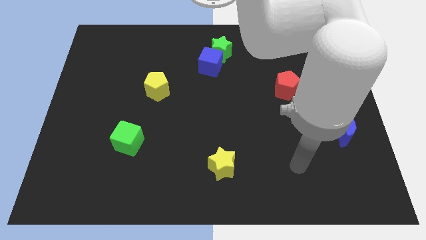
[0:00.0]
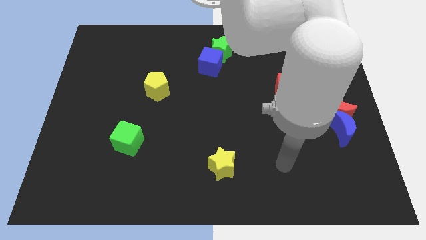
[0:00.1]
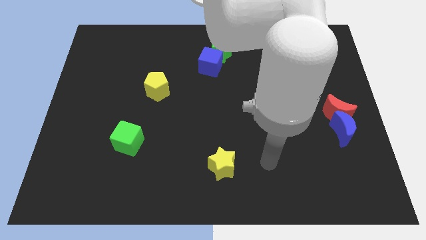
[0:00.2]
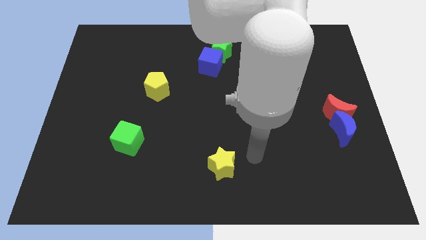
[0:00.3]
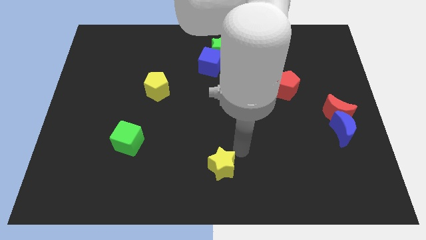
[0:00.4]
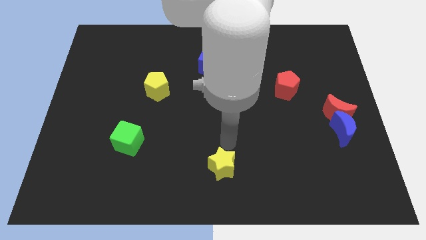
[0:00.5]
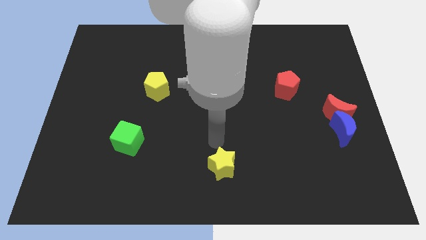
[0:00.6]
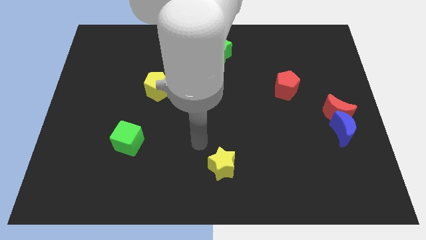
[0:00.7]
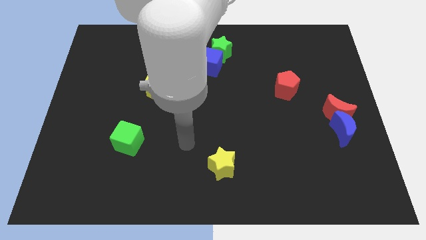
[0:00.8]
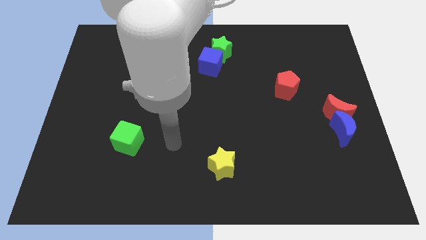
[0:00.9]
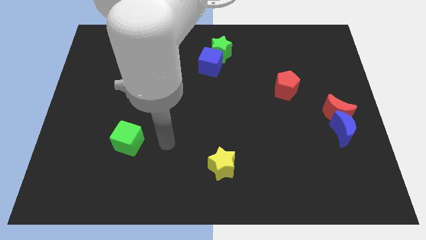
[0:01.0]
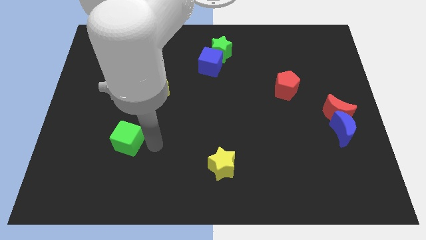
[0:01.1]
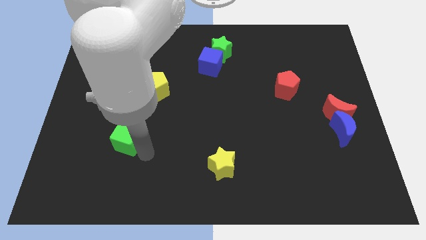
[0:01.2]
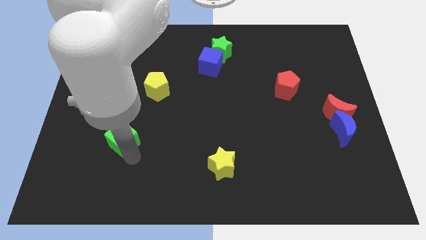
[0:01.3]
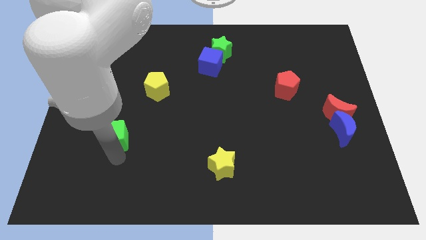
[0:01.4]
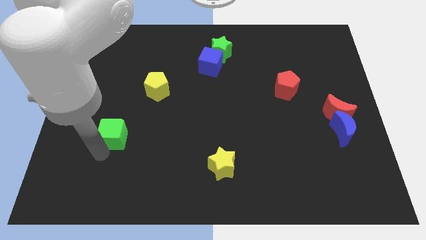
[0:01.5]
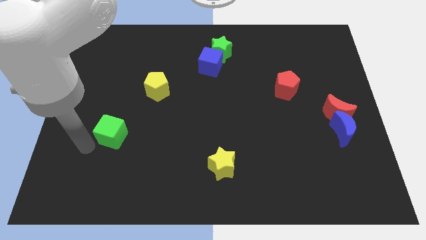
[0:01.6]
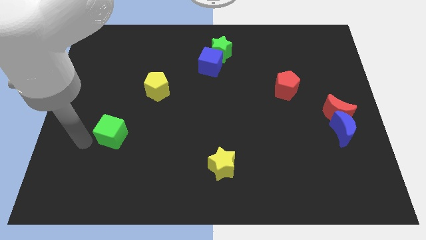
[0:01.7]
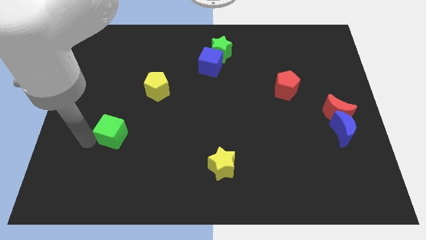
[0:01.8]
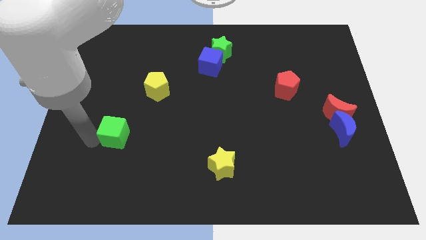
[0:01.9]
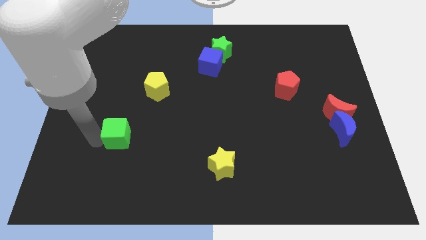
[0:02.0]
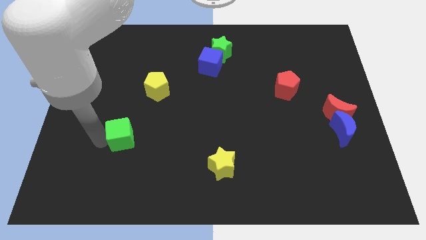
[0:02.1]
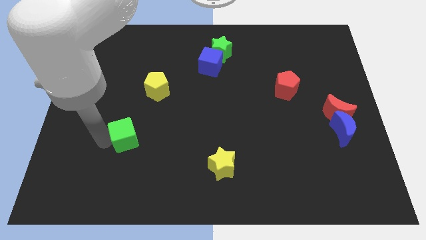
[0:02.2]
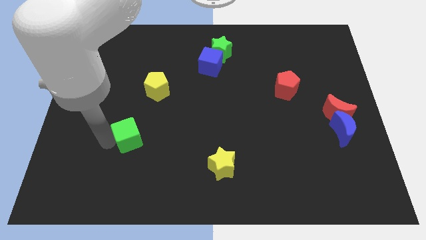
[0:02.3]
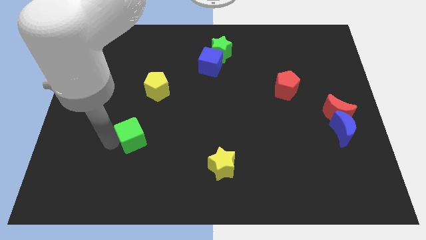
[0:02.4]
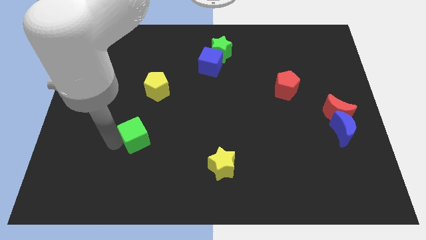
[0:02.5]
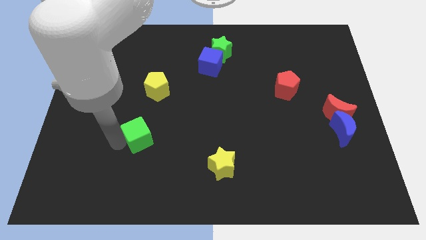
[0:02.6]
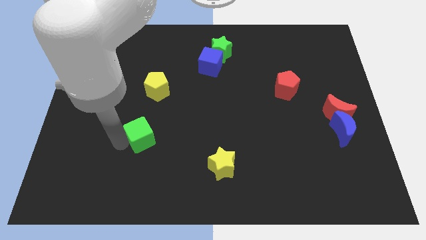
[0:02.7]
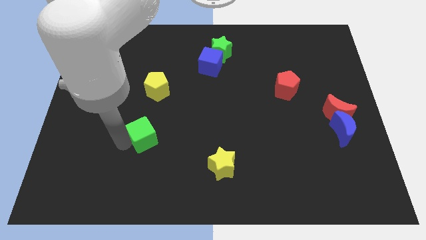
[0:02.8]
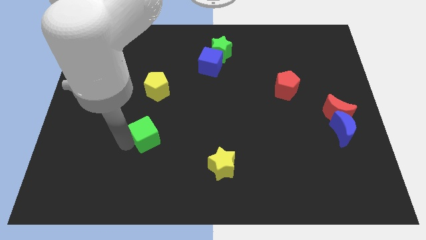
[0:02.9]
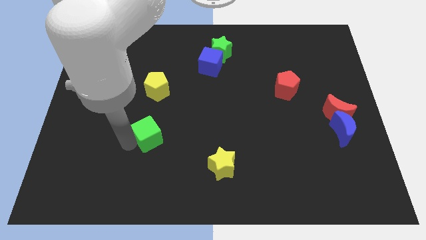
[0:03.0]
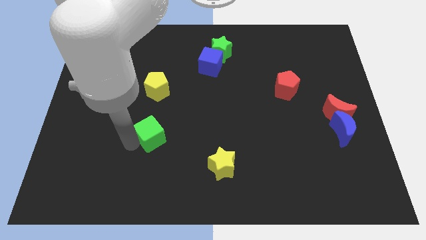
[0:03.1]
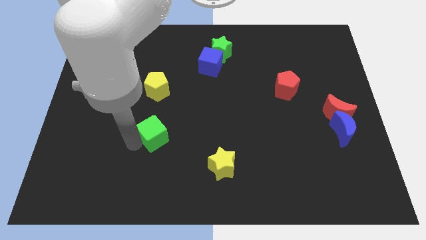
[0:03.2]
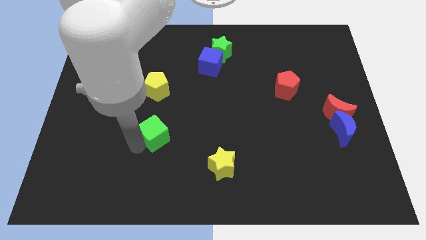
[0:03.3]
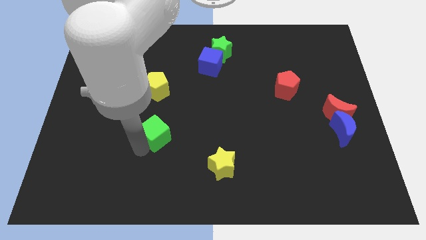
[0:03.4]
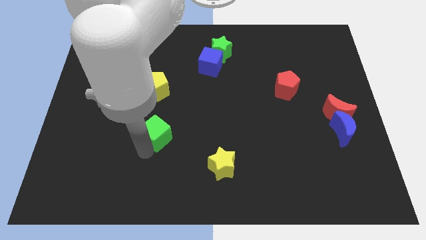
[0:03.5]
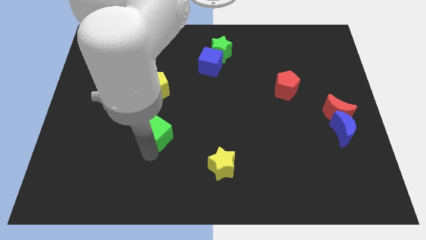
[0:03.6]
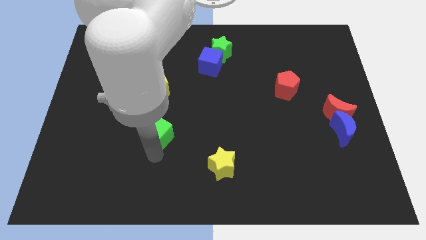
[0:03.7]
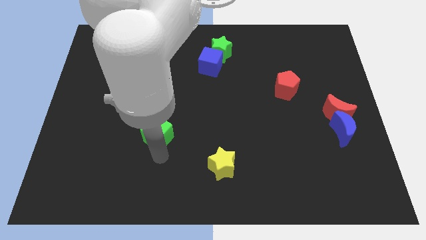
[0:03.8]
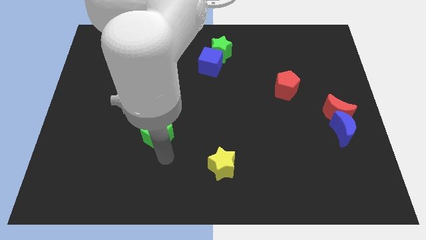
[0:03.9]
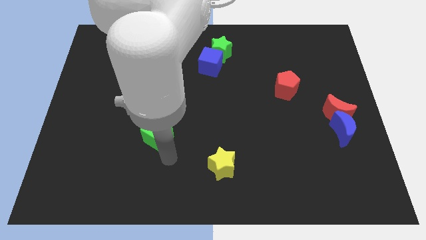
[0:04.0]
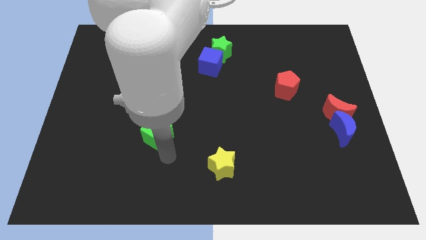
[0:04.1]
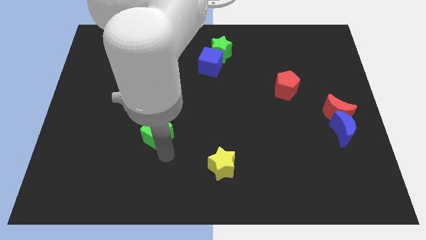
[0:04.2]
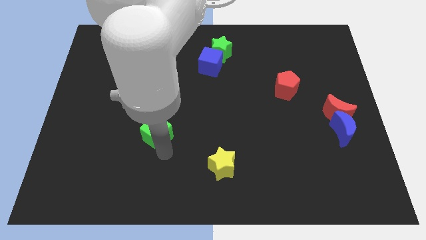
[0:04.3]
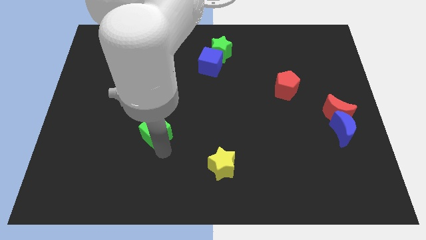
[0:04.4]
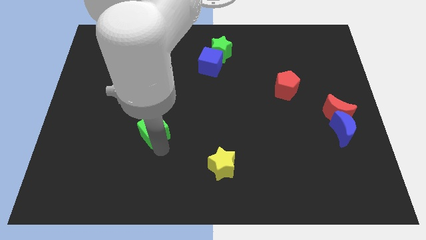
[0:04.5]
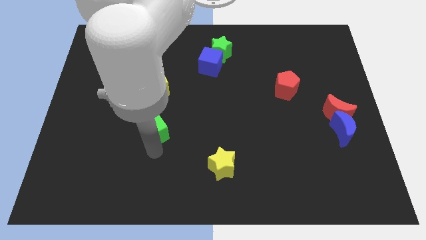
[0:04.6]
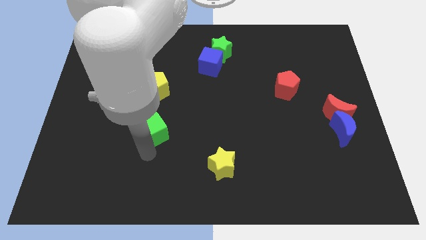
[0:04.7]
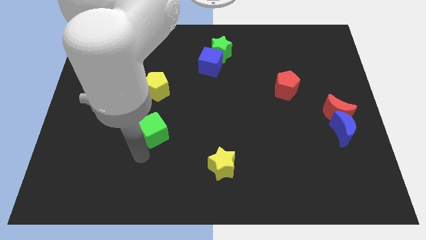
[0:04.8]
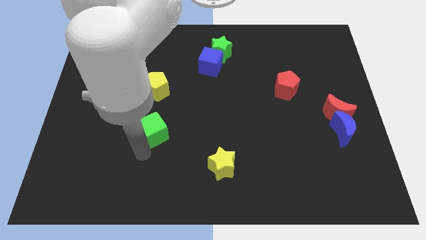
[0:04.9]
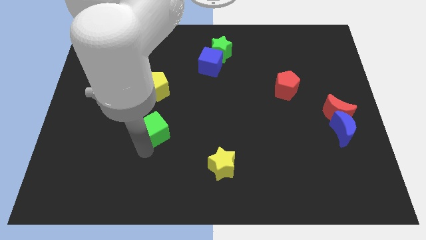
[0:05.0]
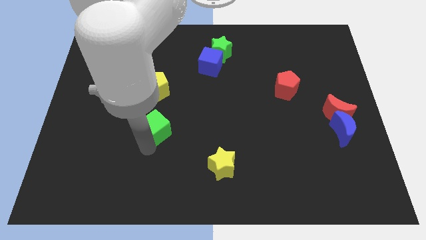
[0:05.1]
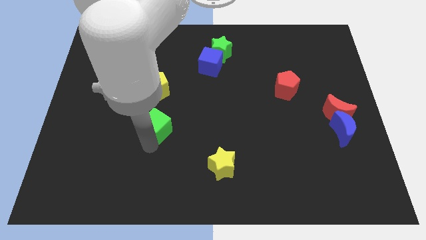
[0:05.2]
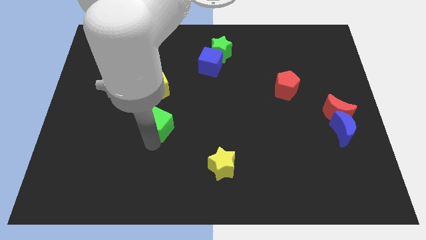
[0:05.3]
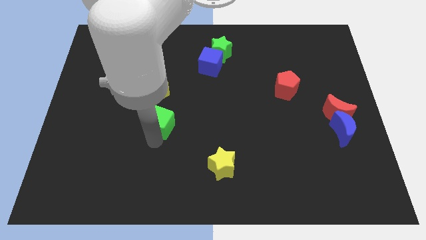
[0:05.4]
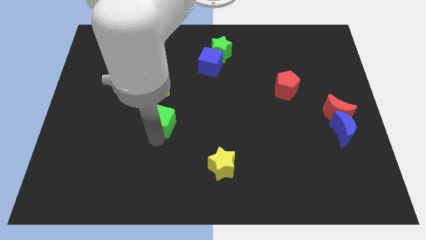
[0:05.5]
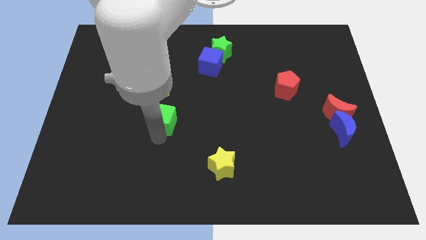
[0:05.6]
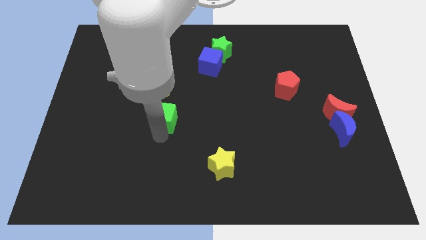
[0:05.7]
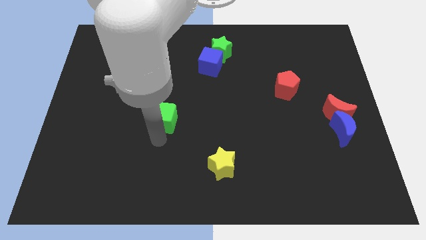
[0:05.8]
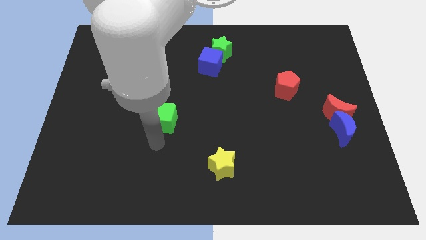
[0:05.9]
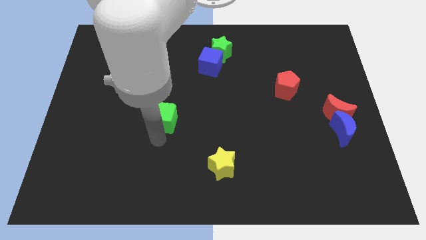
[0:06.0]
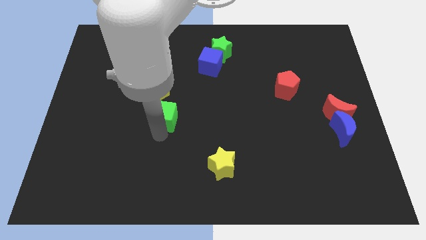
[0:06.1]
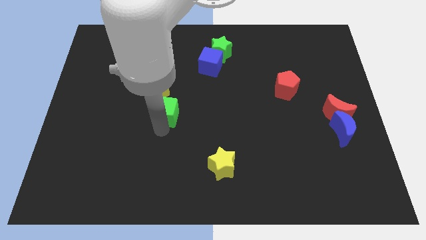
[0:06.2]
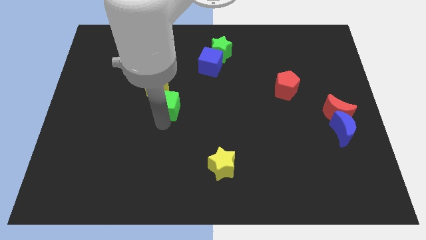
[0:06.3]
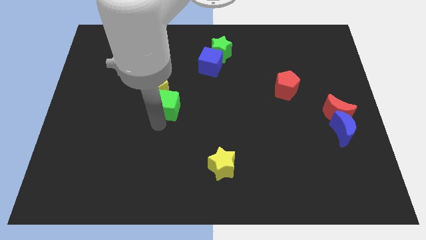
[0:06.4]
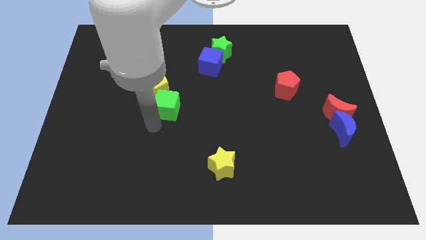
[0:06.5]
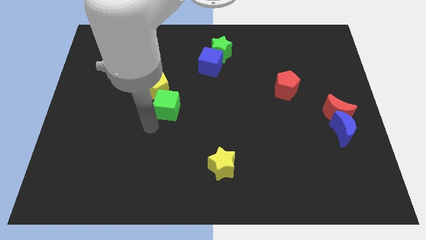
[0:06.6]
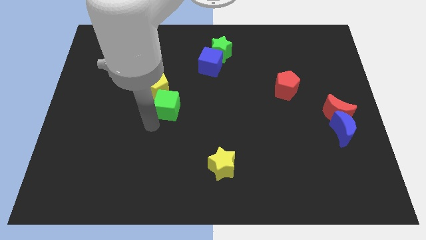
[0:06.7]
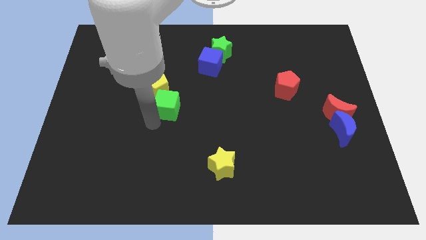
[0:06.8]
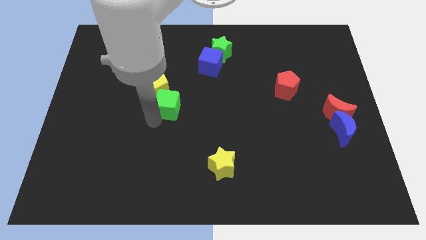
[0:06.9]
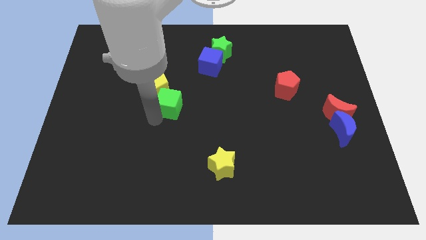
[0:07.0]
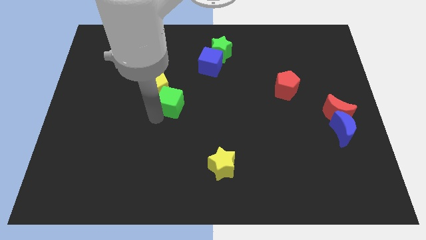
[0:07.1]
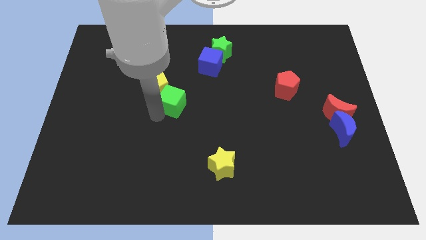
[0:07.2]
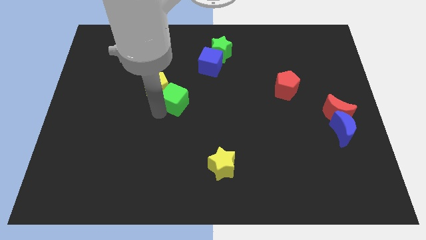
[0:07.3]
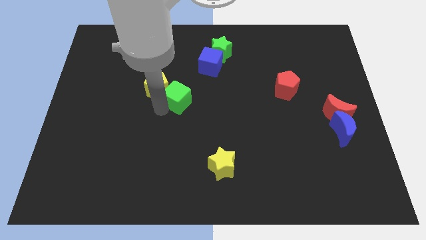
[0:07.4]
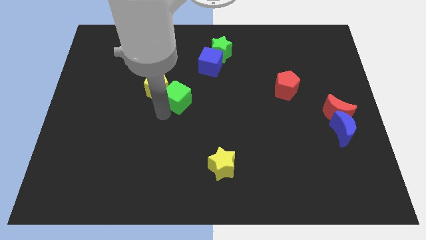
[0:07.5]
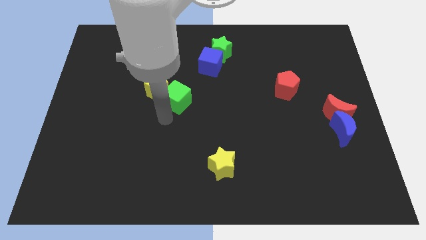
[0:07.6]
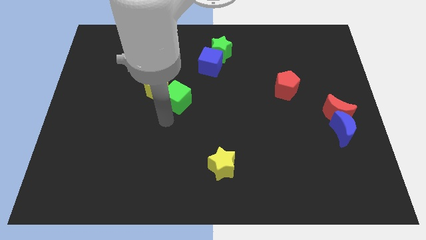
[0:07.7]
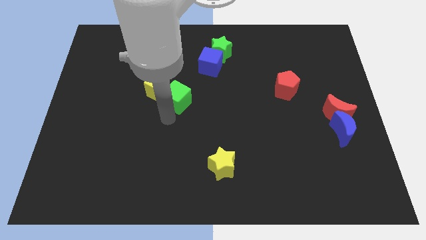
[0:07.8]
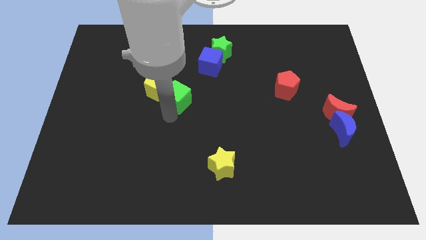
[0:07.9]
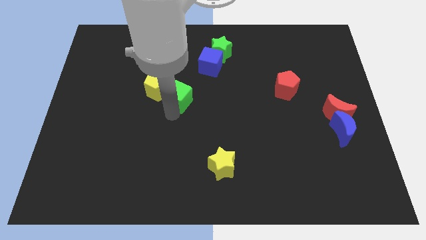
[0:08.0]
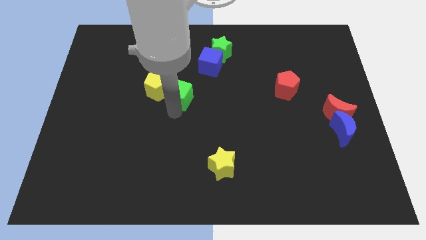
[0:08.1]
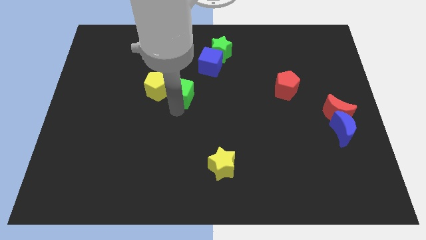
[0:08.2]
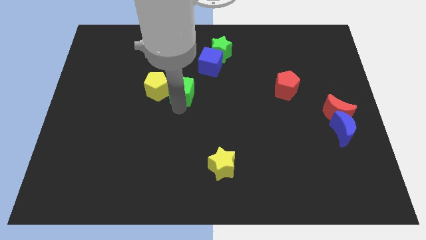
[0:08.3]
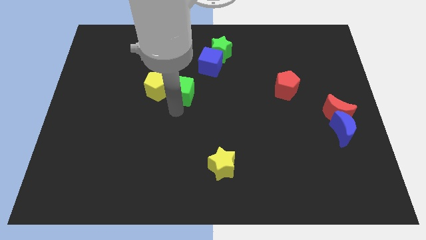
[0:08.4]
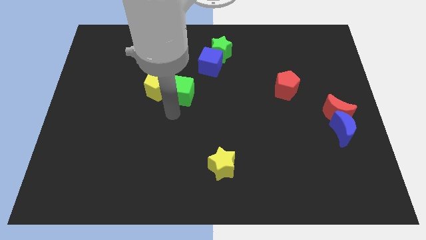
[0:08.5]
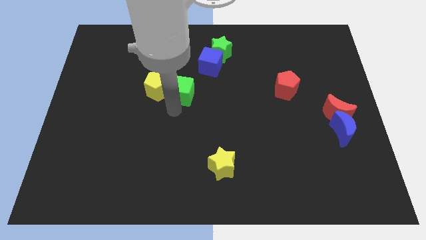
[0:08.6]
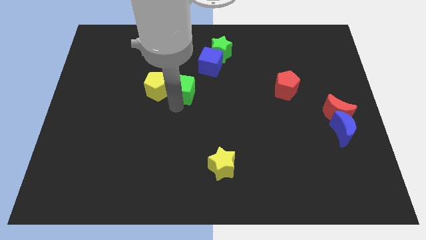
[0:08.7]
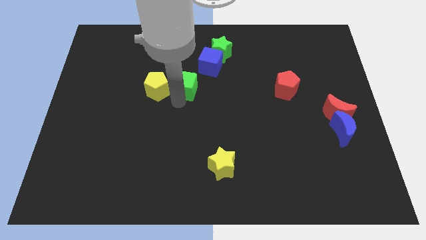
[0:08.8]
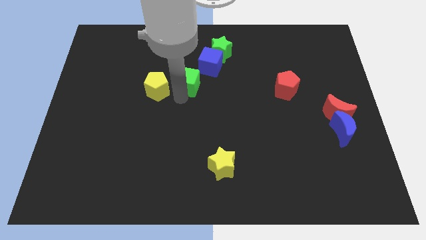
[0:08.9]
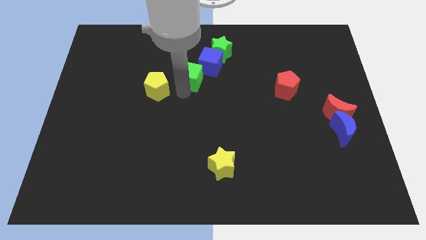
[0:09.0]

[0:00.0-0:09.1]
push the green cube diagonally down and to the left of the green star
